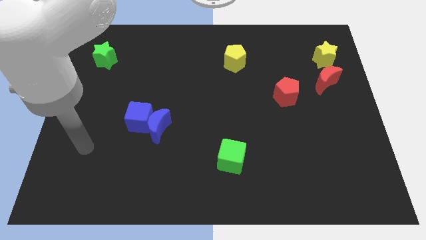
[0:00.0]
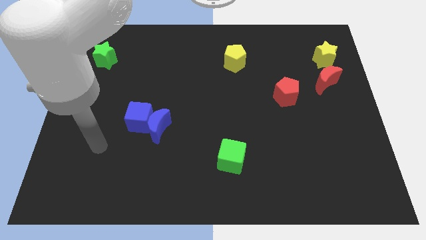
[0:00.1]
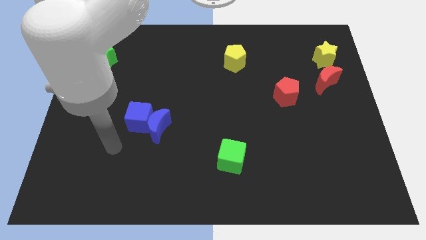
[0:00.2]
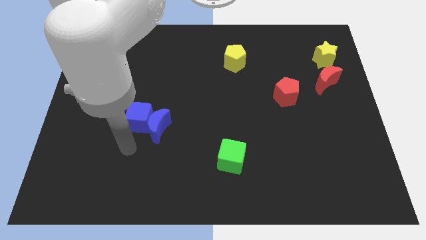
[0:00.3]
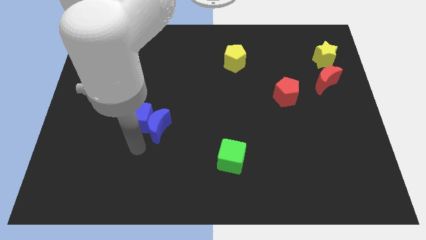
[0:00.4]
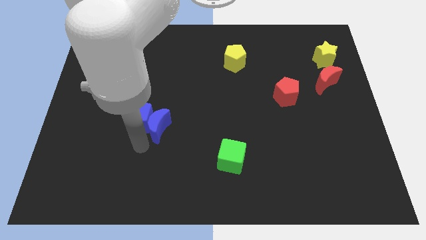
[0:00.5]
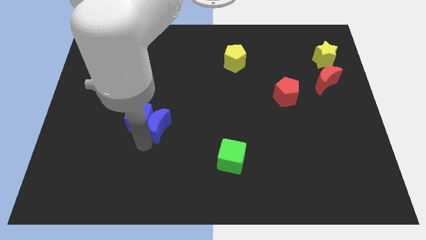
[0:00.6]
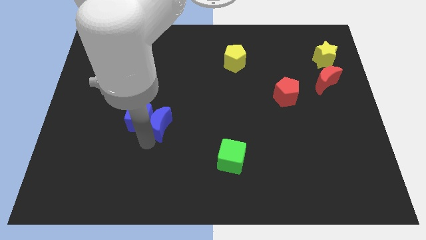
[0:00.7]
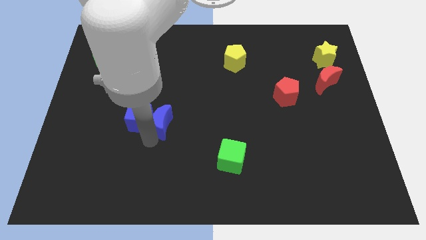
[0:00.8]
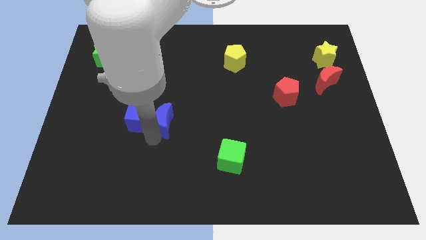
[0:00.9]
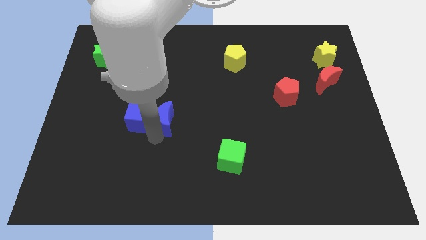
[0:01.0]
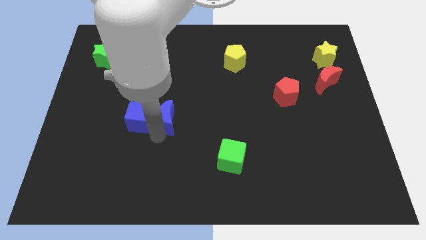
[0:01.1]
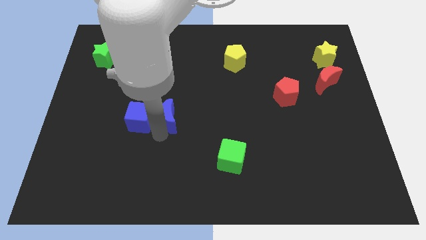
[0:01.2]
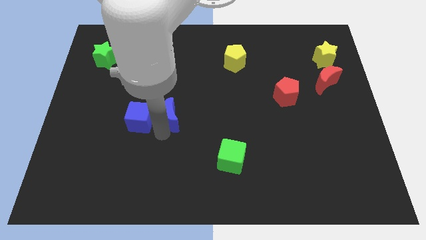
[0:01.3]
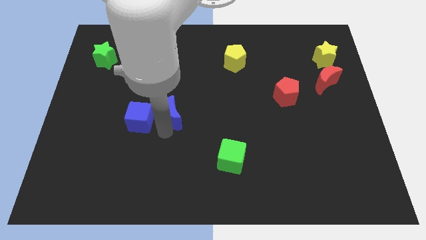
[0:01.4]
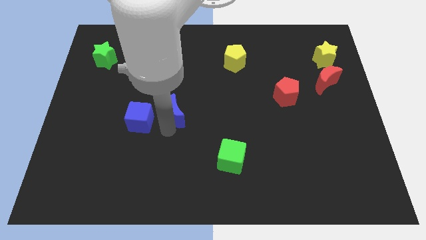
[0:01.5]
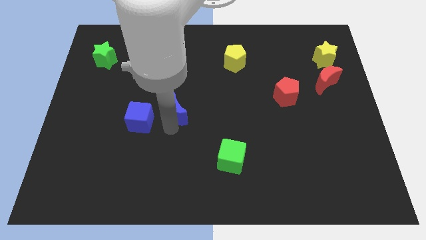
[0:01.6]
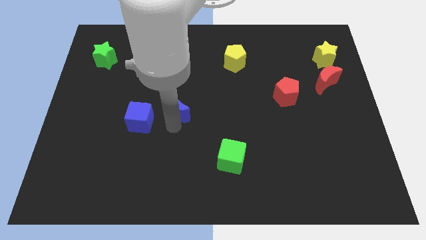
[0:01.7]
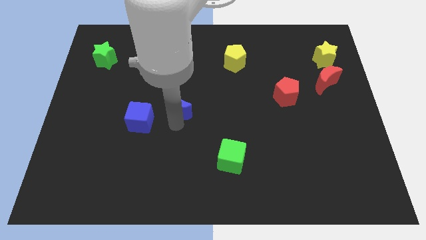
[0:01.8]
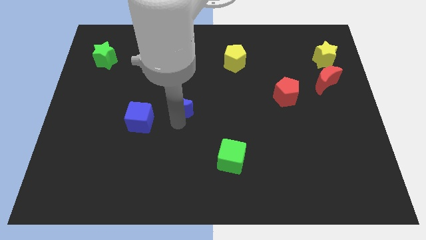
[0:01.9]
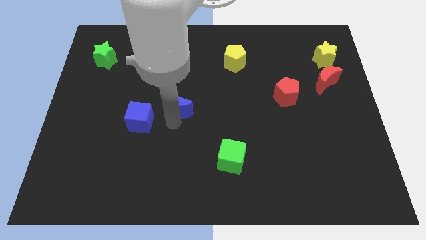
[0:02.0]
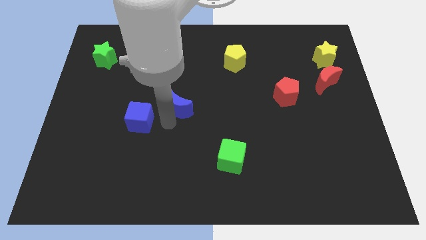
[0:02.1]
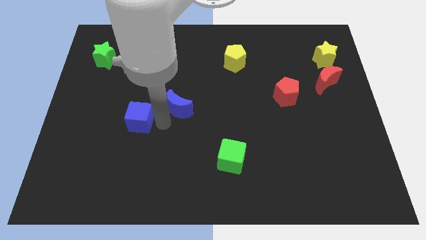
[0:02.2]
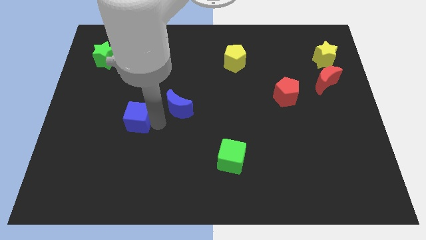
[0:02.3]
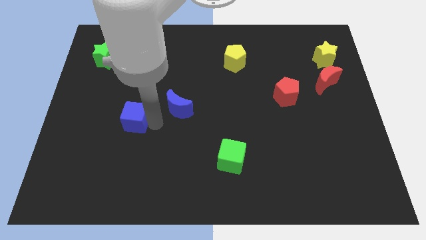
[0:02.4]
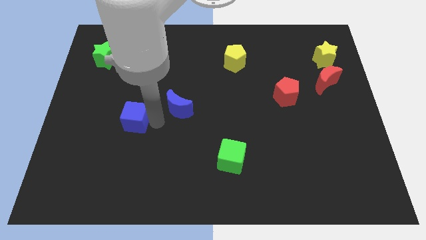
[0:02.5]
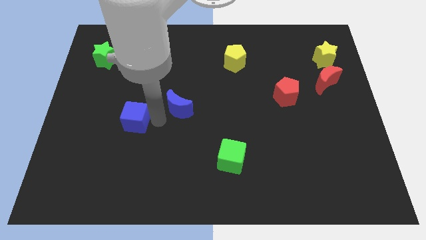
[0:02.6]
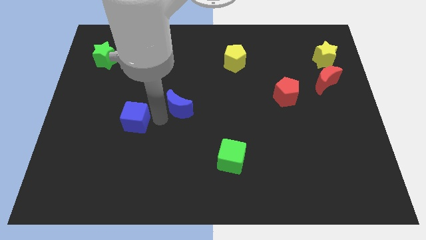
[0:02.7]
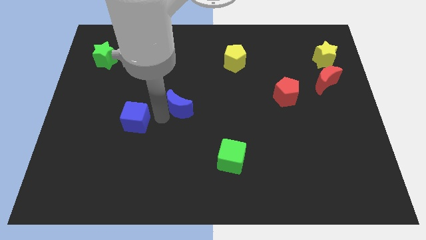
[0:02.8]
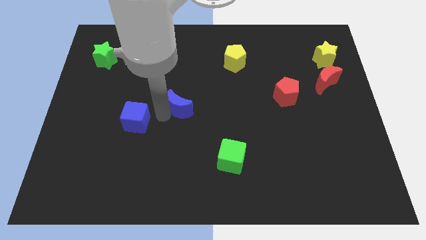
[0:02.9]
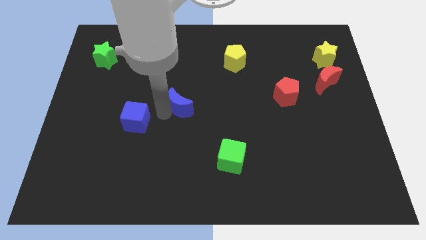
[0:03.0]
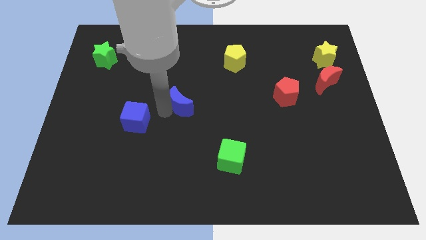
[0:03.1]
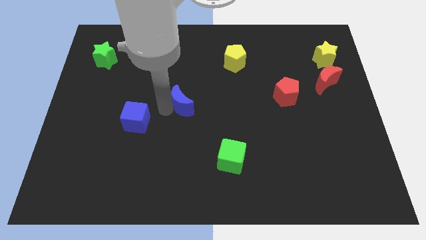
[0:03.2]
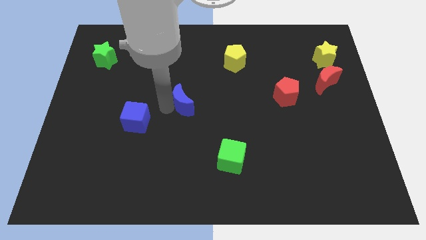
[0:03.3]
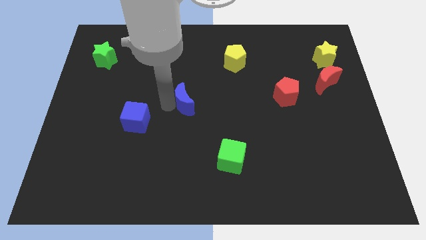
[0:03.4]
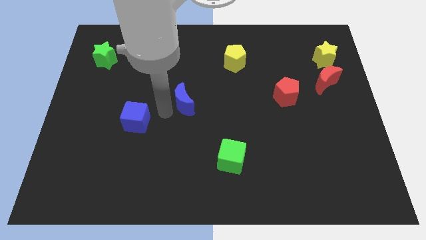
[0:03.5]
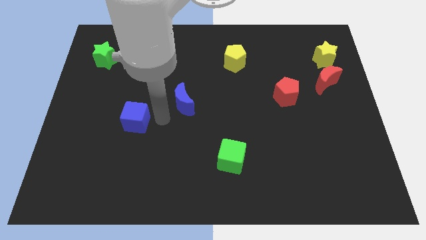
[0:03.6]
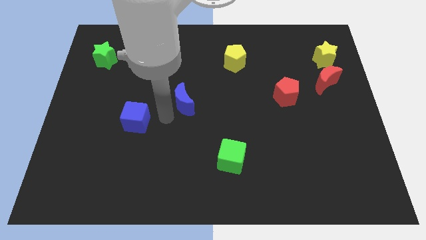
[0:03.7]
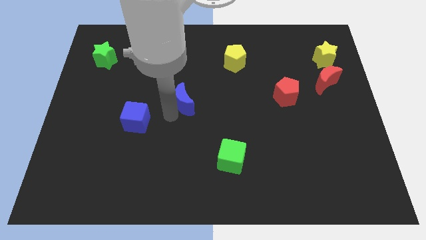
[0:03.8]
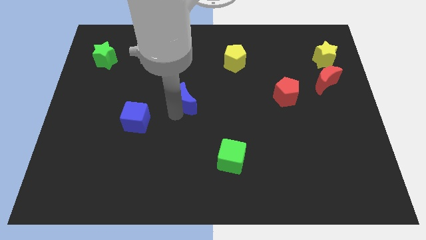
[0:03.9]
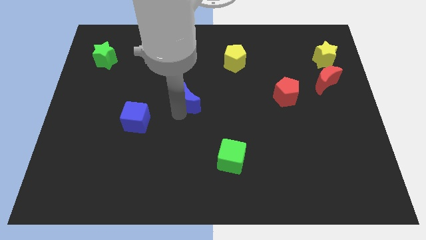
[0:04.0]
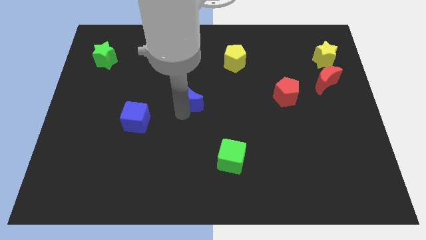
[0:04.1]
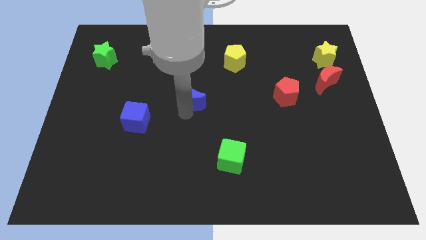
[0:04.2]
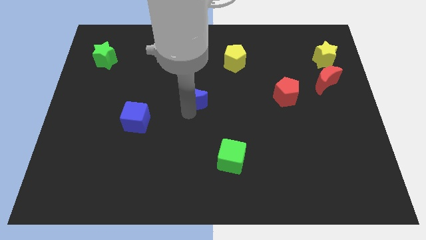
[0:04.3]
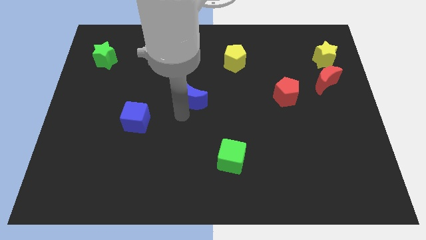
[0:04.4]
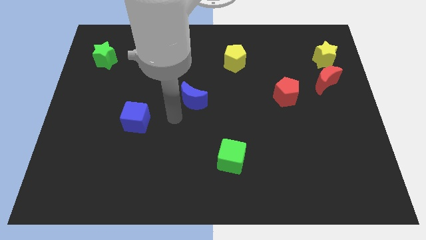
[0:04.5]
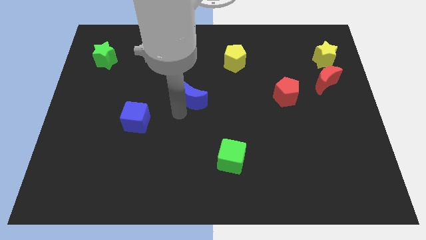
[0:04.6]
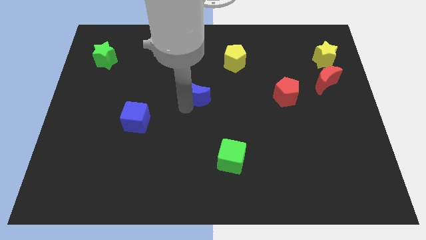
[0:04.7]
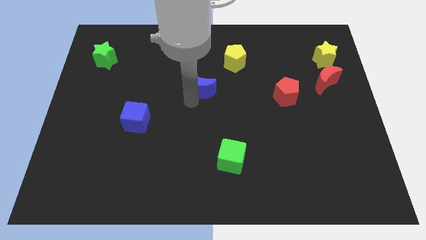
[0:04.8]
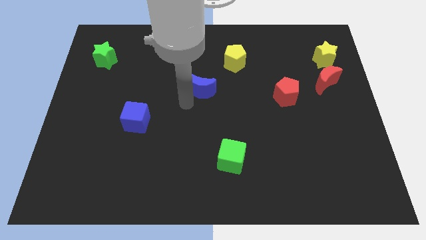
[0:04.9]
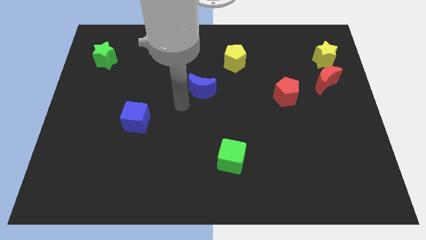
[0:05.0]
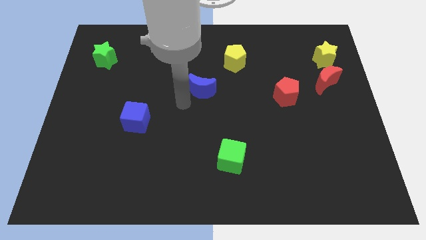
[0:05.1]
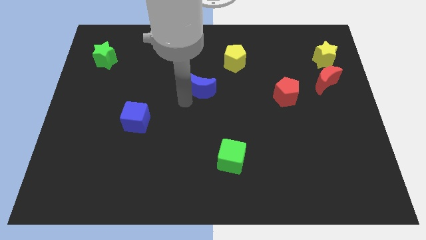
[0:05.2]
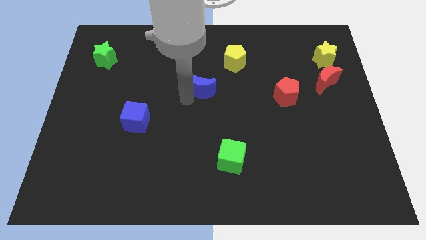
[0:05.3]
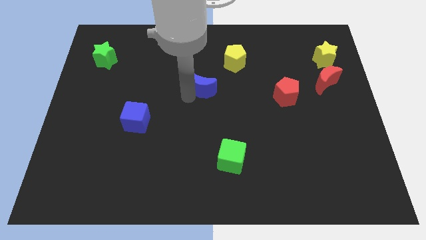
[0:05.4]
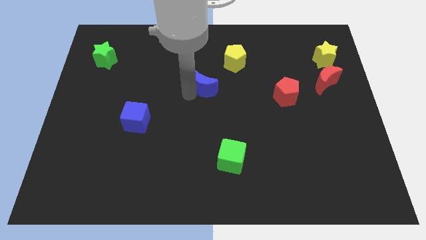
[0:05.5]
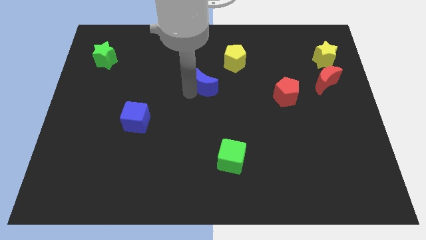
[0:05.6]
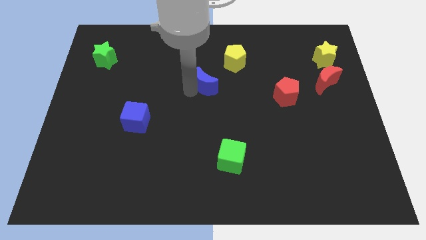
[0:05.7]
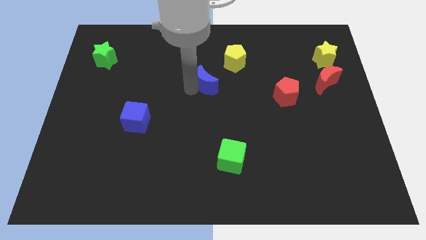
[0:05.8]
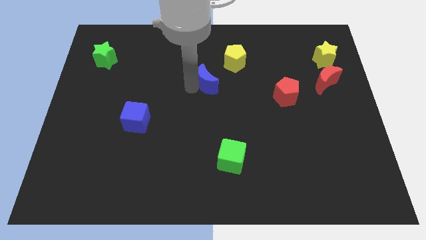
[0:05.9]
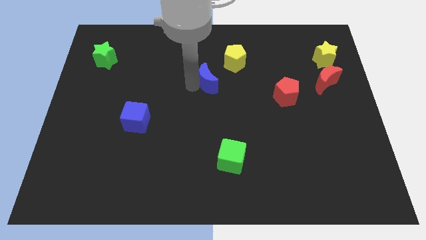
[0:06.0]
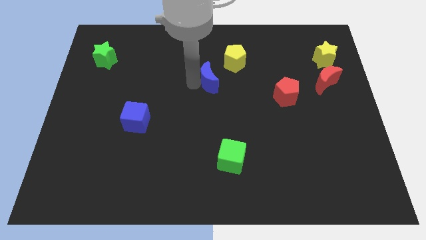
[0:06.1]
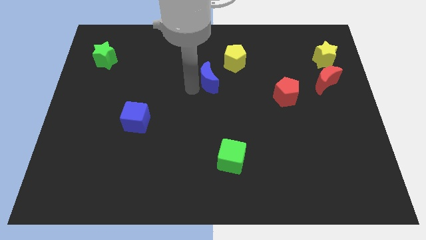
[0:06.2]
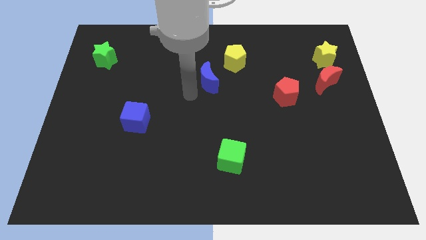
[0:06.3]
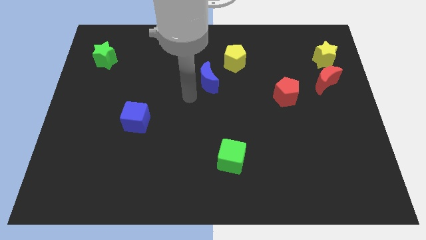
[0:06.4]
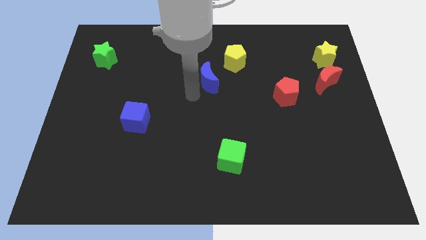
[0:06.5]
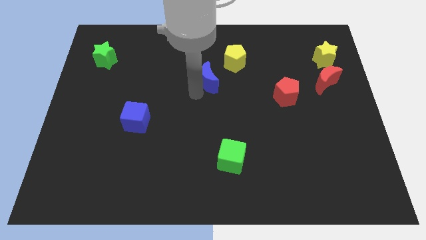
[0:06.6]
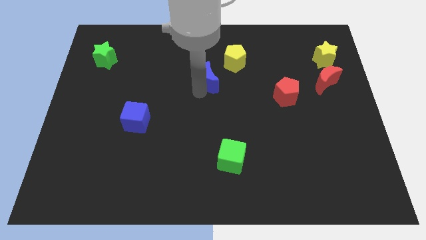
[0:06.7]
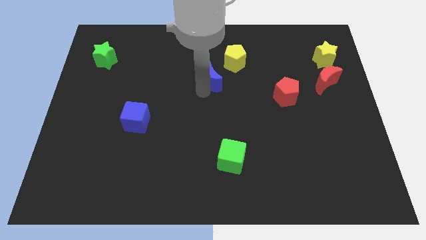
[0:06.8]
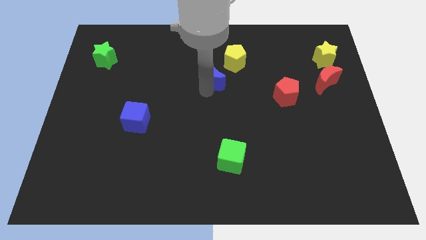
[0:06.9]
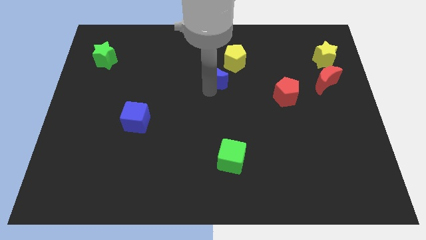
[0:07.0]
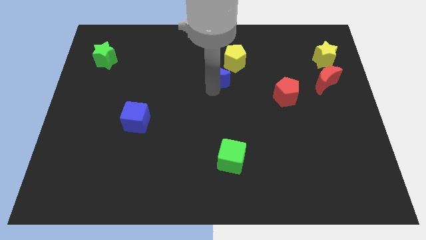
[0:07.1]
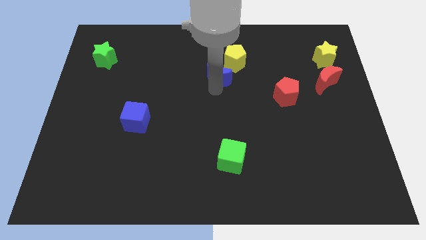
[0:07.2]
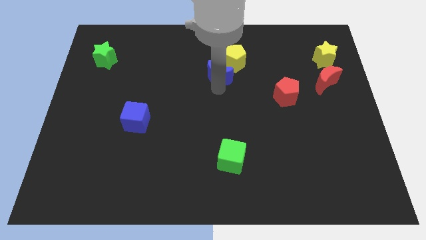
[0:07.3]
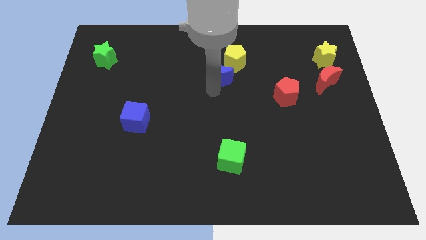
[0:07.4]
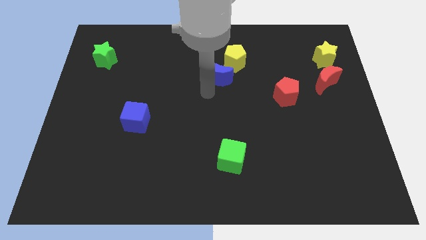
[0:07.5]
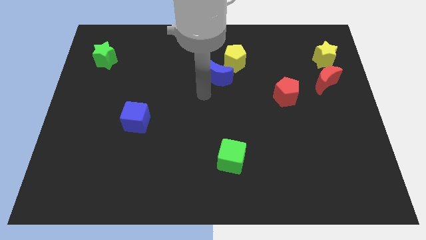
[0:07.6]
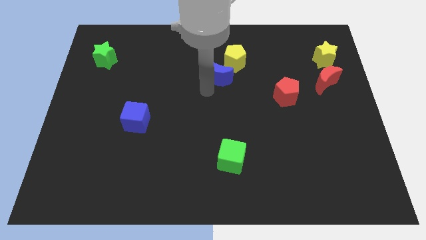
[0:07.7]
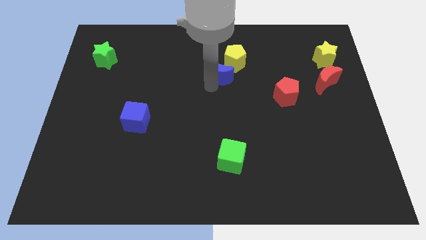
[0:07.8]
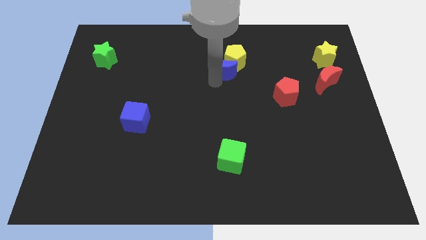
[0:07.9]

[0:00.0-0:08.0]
move the blue moon close to the yellow pentagon
